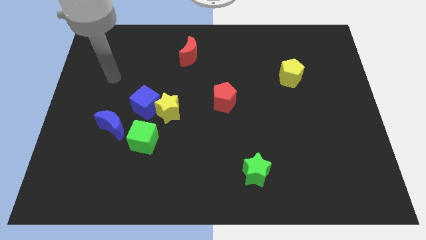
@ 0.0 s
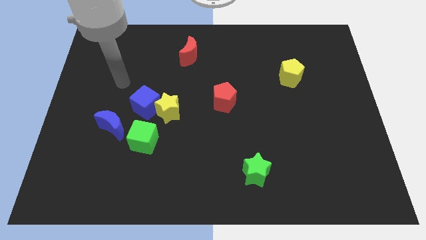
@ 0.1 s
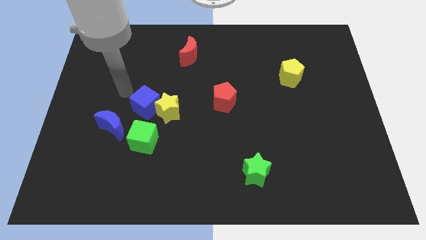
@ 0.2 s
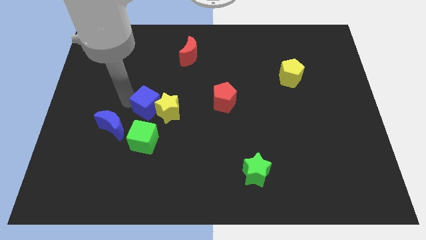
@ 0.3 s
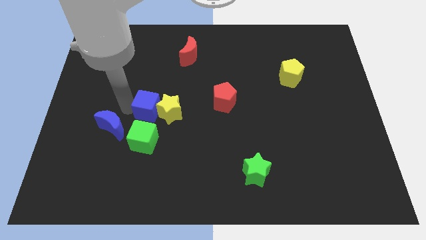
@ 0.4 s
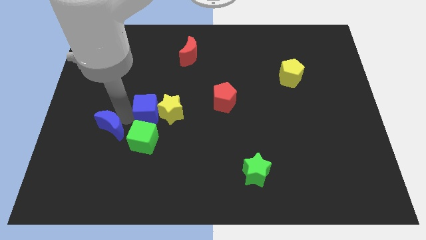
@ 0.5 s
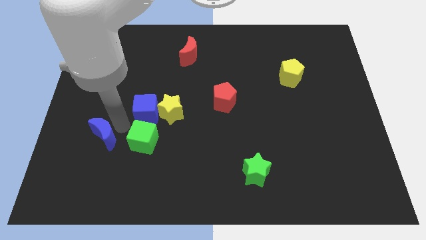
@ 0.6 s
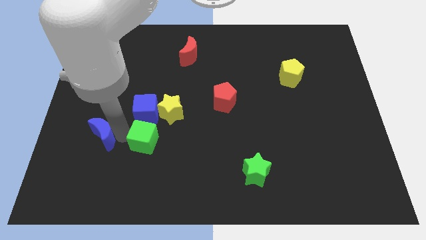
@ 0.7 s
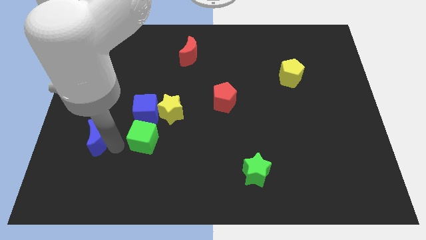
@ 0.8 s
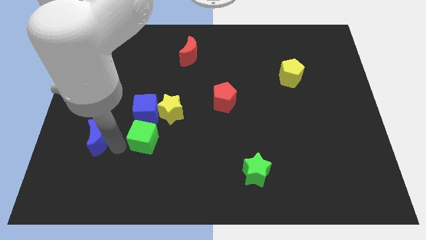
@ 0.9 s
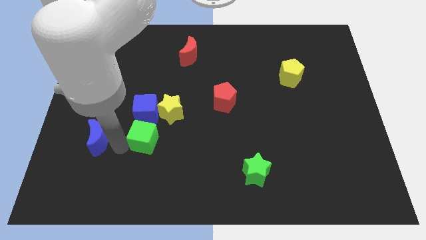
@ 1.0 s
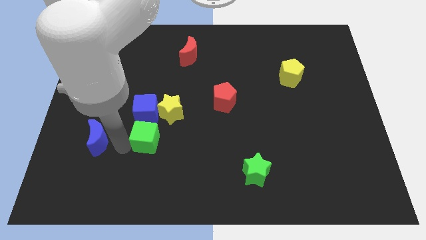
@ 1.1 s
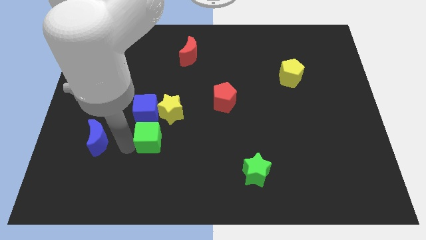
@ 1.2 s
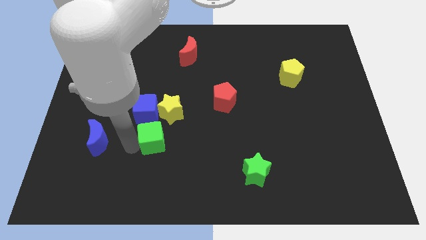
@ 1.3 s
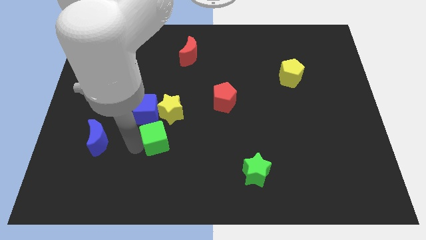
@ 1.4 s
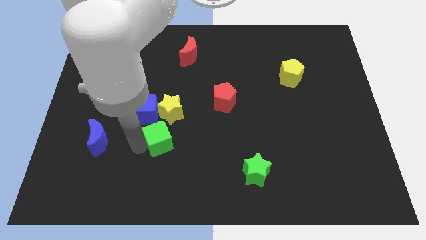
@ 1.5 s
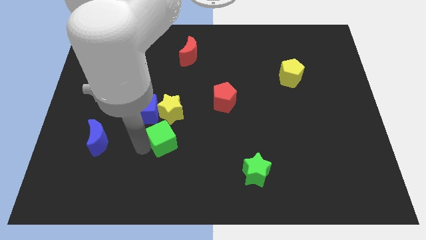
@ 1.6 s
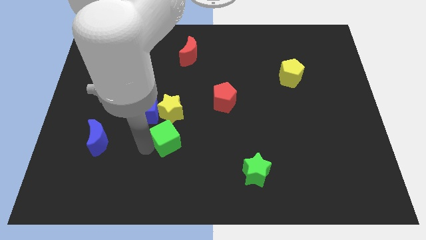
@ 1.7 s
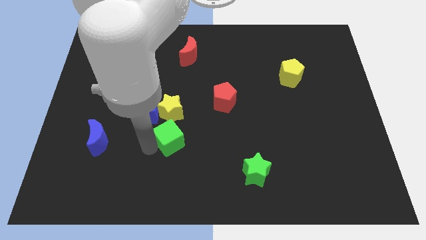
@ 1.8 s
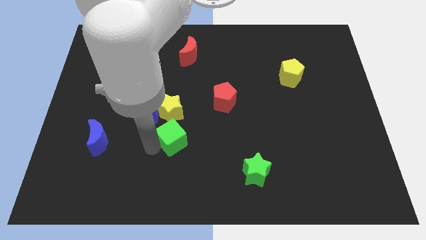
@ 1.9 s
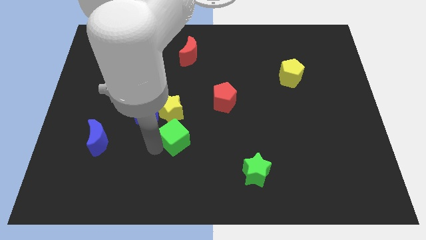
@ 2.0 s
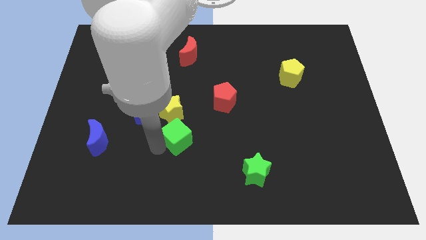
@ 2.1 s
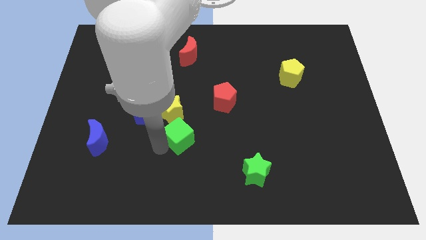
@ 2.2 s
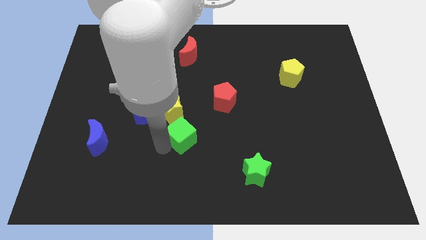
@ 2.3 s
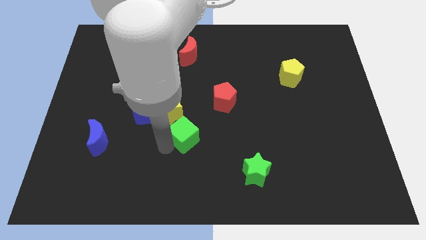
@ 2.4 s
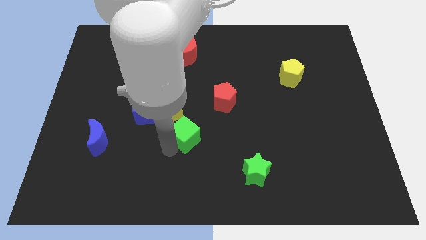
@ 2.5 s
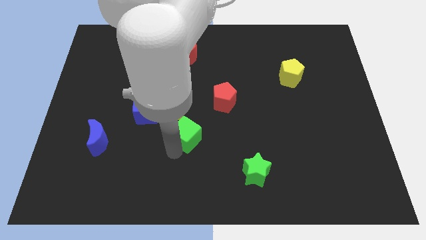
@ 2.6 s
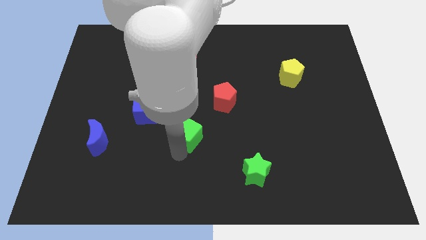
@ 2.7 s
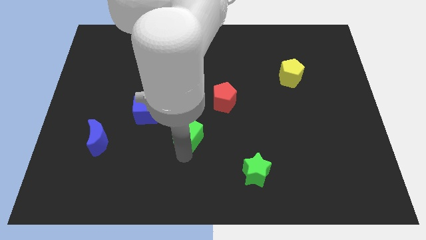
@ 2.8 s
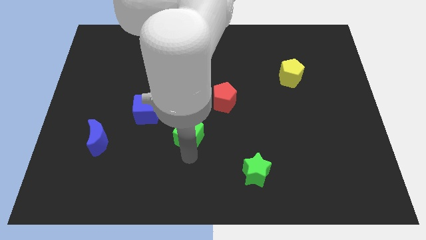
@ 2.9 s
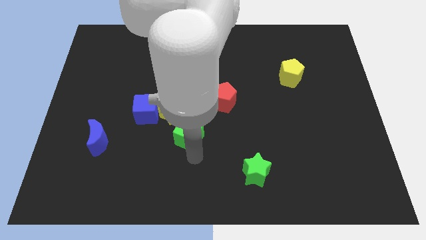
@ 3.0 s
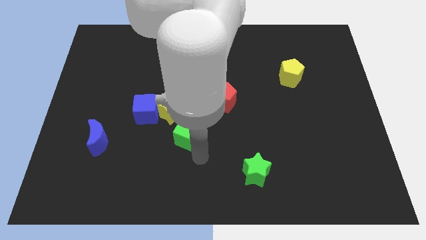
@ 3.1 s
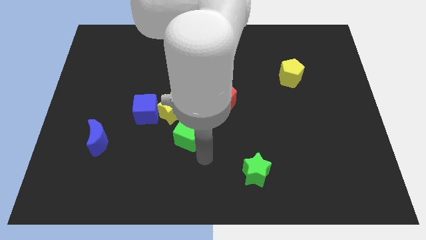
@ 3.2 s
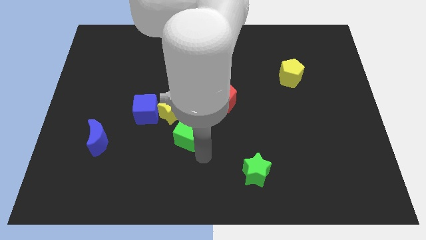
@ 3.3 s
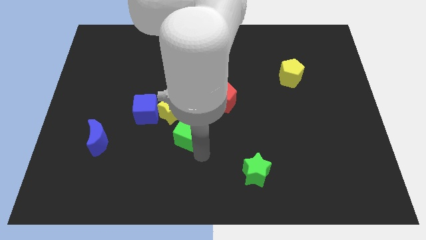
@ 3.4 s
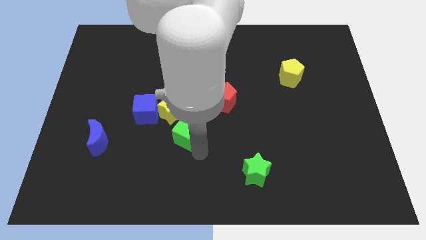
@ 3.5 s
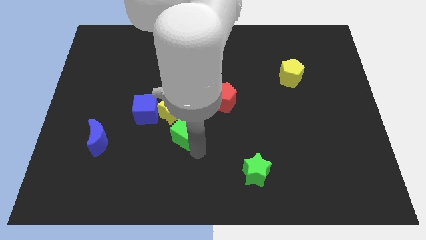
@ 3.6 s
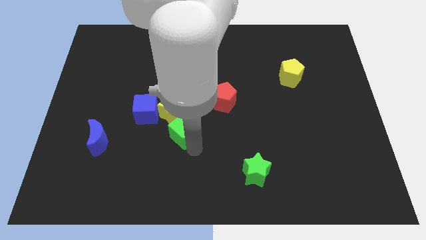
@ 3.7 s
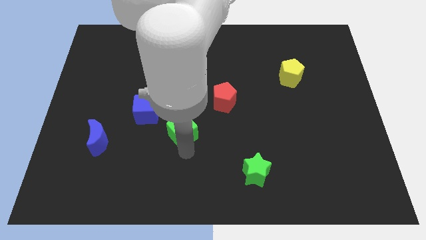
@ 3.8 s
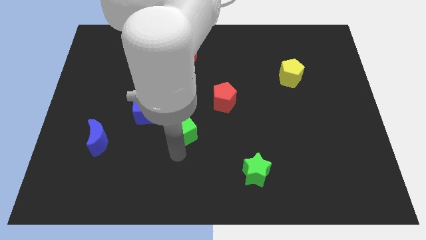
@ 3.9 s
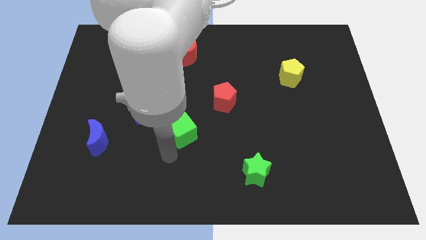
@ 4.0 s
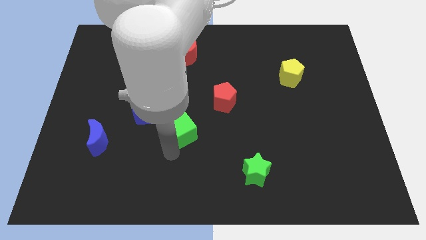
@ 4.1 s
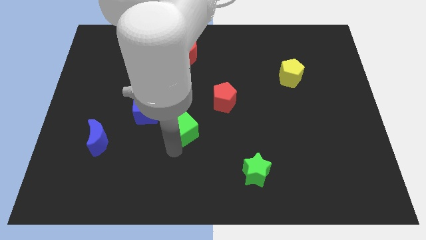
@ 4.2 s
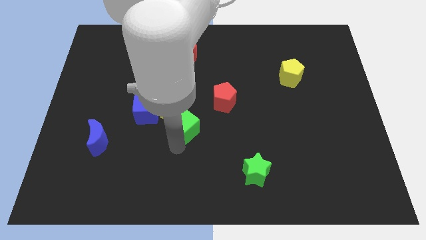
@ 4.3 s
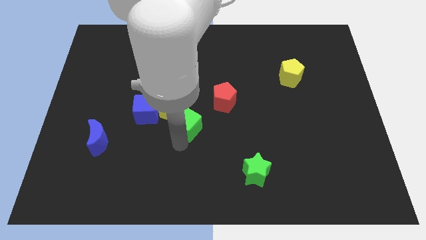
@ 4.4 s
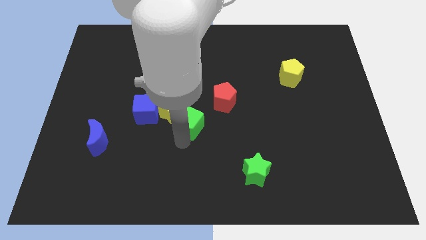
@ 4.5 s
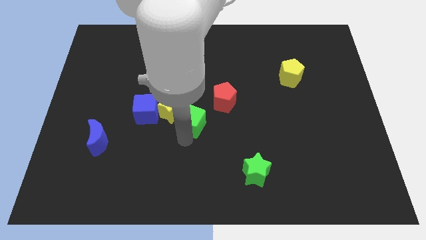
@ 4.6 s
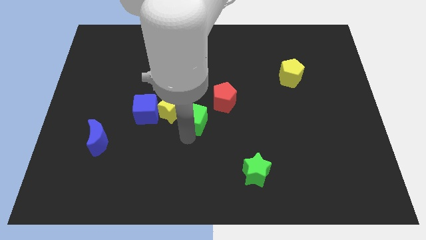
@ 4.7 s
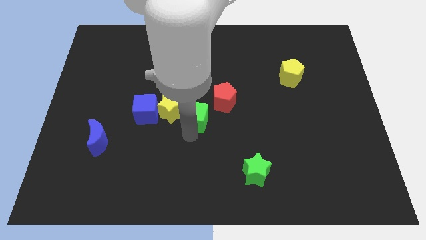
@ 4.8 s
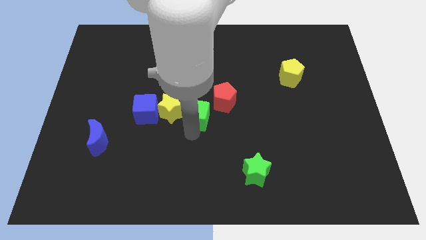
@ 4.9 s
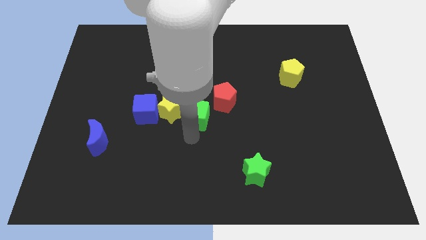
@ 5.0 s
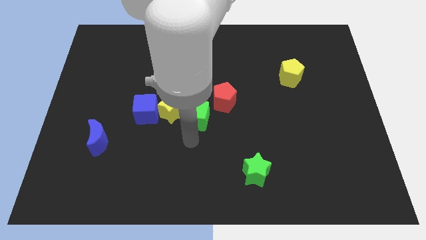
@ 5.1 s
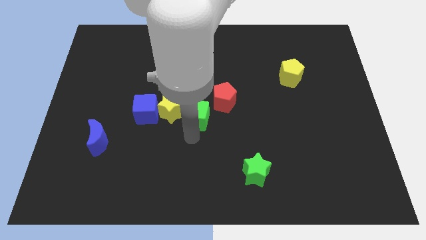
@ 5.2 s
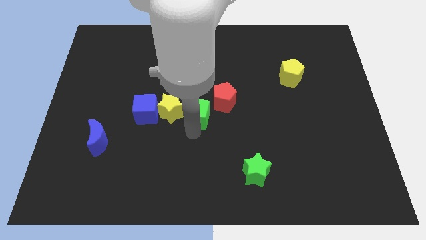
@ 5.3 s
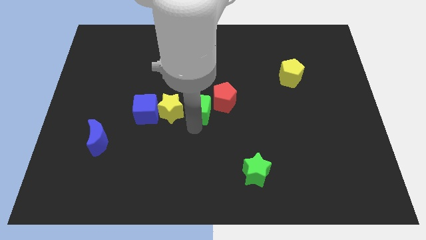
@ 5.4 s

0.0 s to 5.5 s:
put the green cube to the top right side of the yellow star
